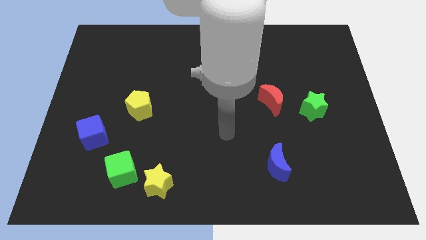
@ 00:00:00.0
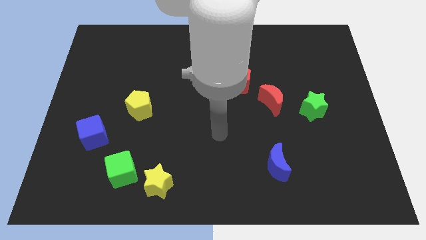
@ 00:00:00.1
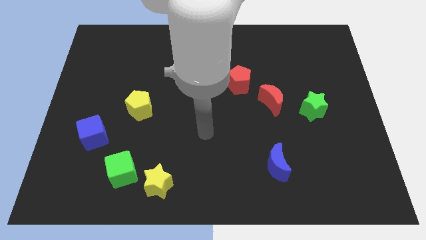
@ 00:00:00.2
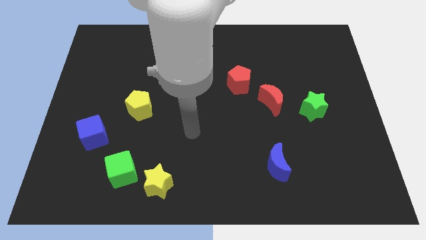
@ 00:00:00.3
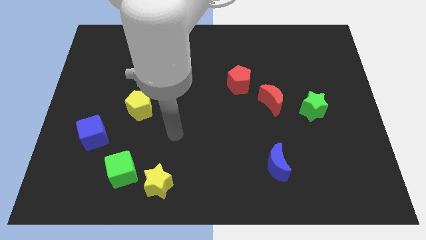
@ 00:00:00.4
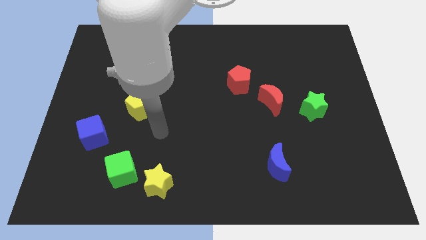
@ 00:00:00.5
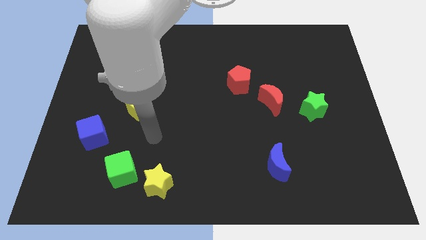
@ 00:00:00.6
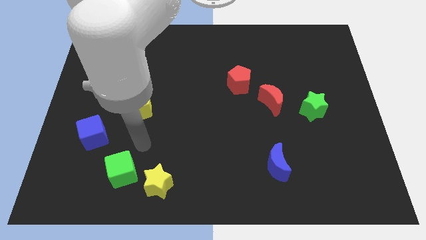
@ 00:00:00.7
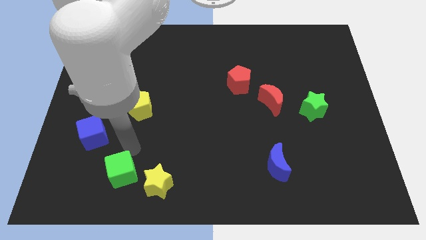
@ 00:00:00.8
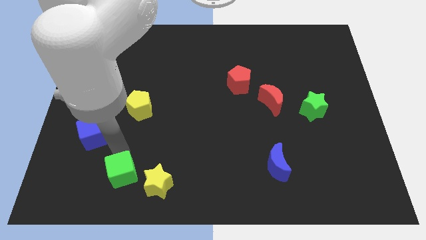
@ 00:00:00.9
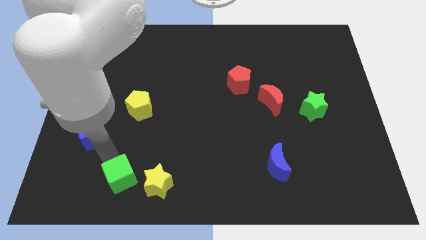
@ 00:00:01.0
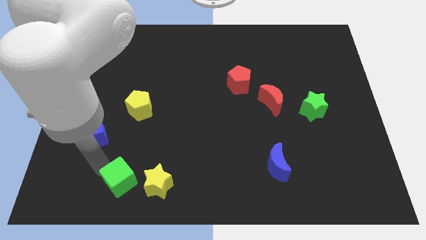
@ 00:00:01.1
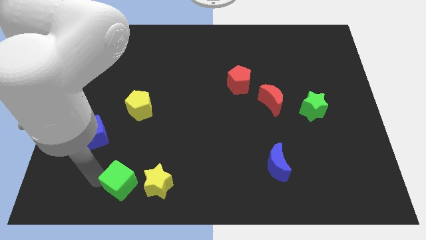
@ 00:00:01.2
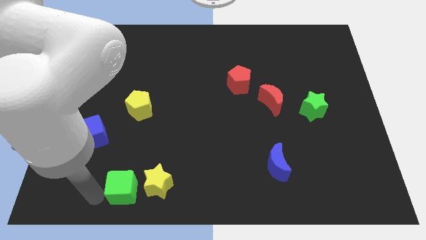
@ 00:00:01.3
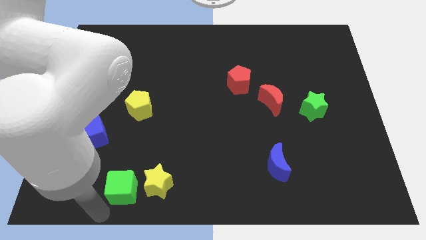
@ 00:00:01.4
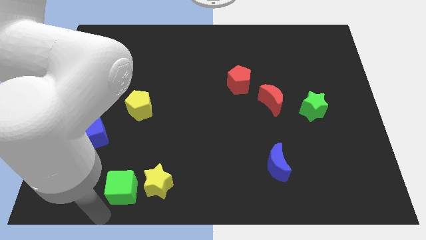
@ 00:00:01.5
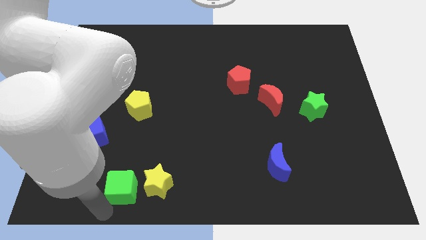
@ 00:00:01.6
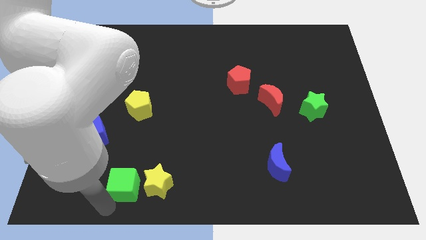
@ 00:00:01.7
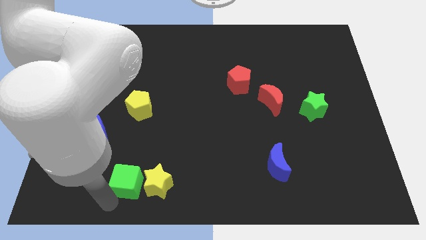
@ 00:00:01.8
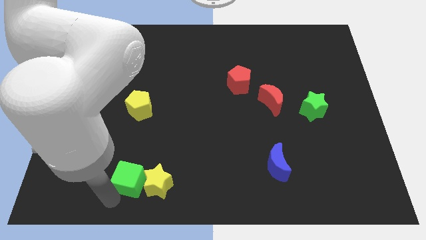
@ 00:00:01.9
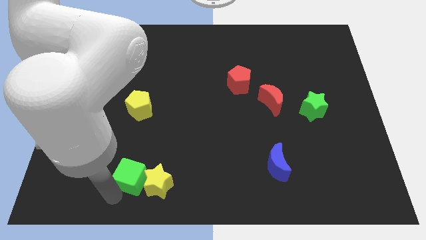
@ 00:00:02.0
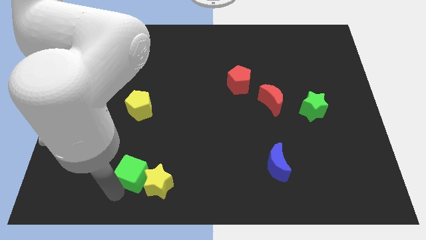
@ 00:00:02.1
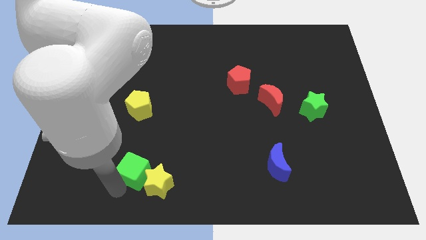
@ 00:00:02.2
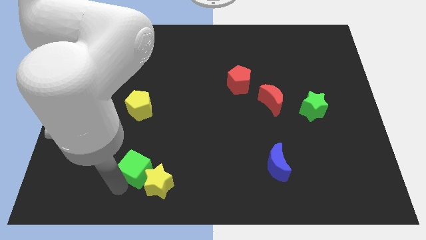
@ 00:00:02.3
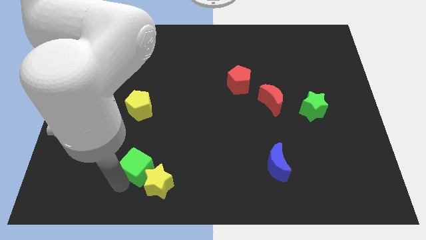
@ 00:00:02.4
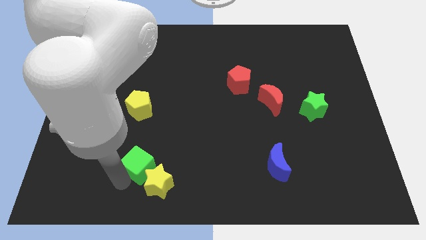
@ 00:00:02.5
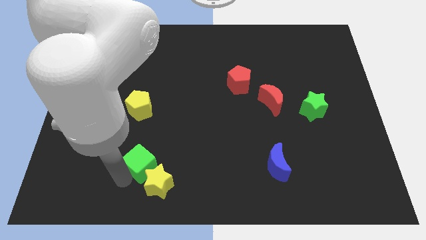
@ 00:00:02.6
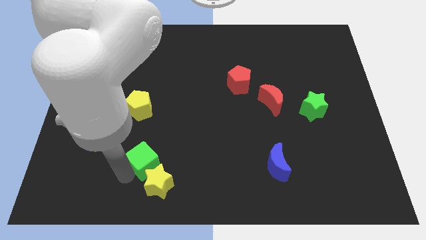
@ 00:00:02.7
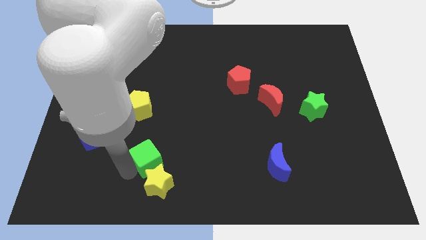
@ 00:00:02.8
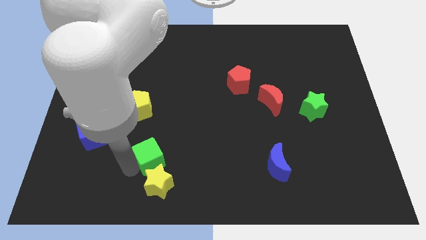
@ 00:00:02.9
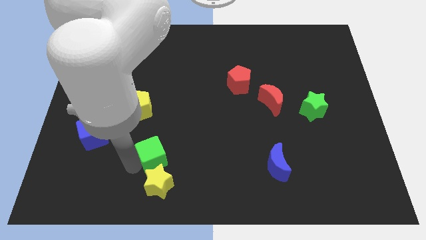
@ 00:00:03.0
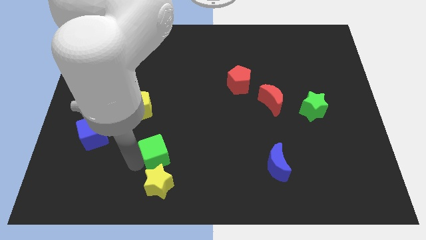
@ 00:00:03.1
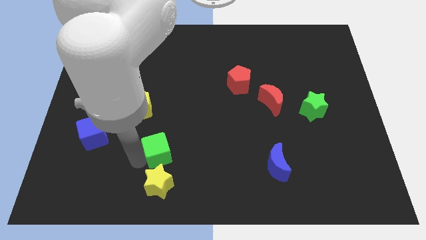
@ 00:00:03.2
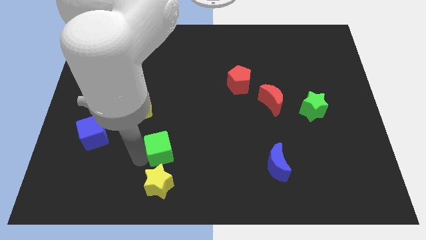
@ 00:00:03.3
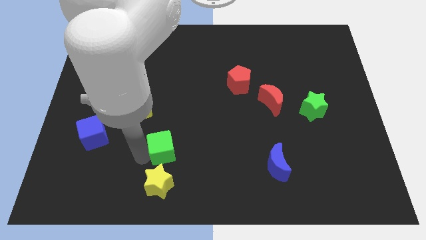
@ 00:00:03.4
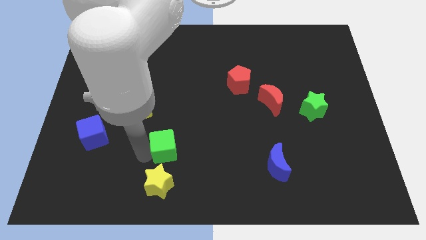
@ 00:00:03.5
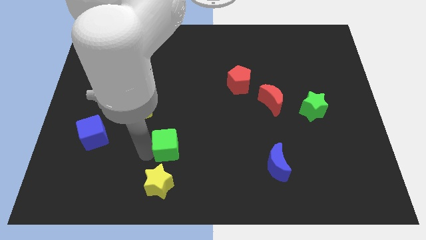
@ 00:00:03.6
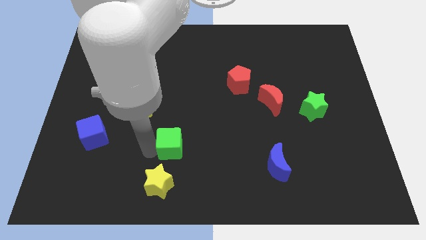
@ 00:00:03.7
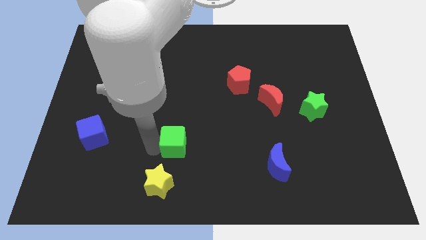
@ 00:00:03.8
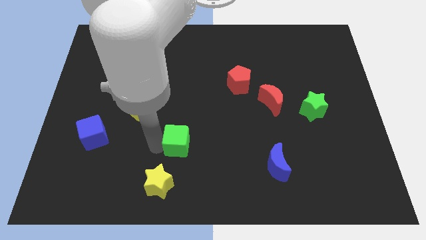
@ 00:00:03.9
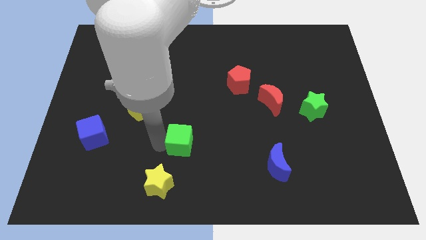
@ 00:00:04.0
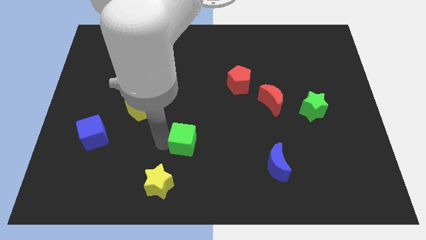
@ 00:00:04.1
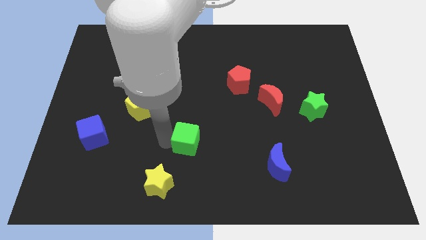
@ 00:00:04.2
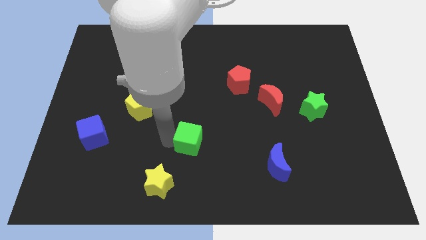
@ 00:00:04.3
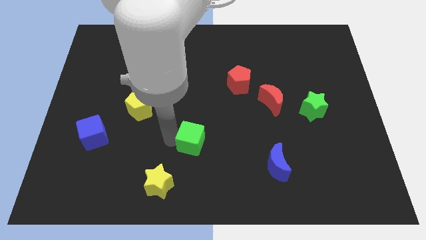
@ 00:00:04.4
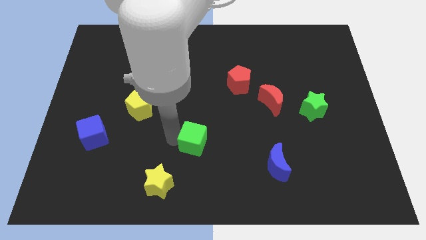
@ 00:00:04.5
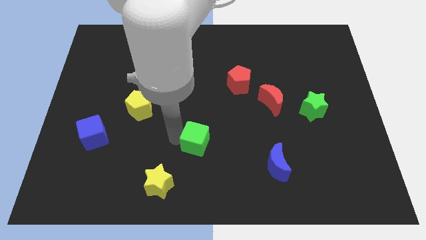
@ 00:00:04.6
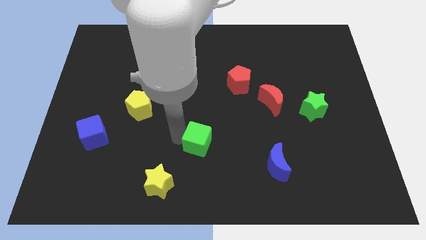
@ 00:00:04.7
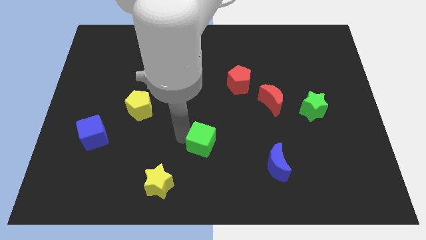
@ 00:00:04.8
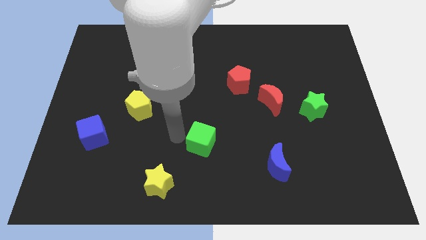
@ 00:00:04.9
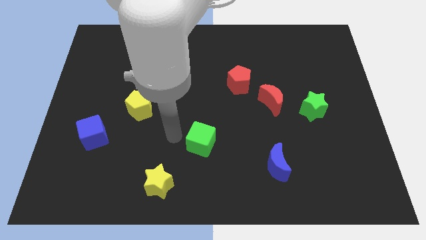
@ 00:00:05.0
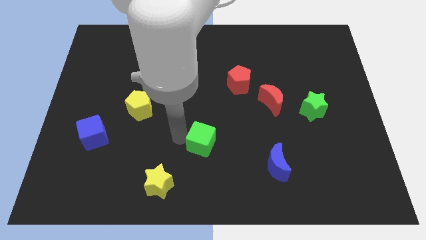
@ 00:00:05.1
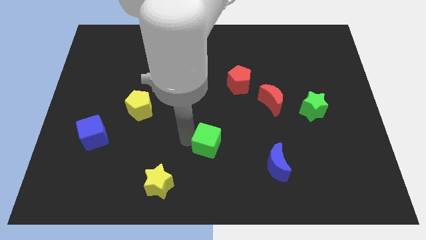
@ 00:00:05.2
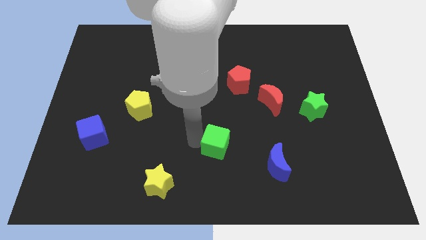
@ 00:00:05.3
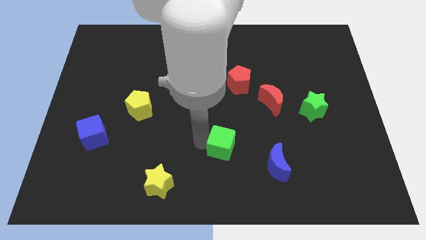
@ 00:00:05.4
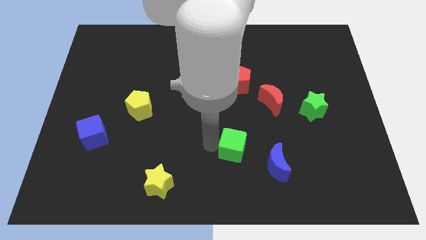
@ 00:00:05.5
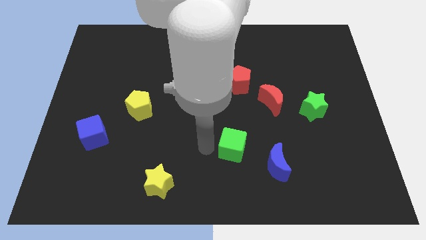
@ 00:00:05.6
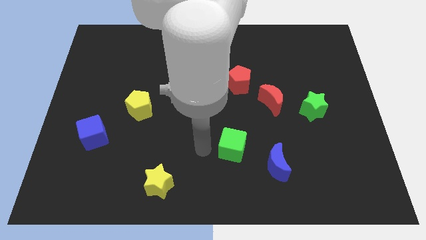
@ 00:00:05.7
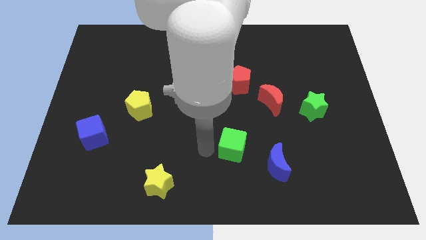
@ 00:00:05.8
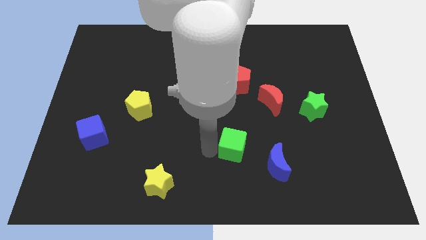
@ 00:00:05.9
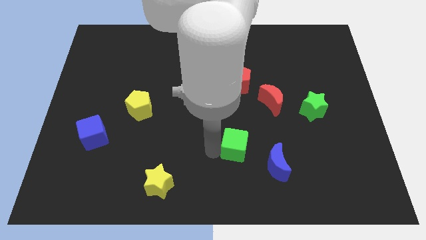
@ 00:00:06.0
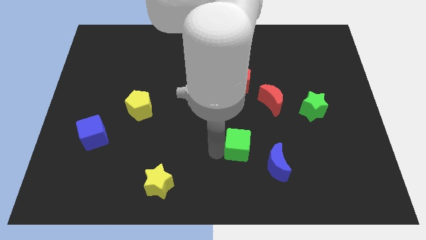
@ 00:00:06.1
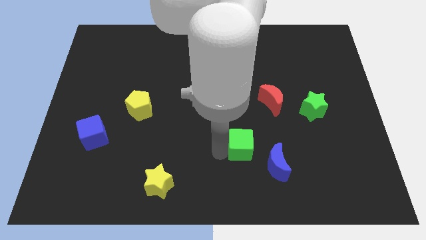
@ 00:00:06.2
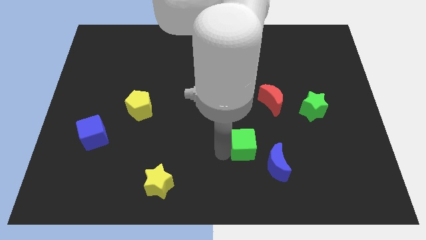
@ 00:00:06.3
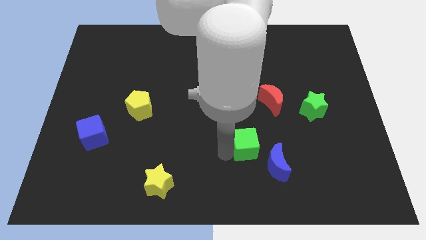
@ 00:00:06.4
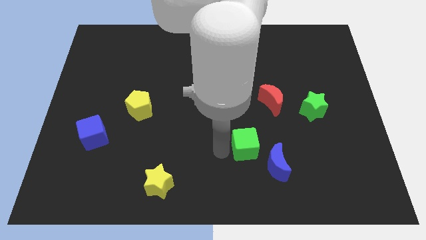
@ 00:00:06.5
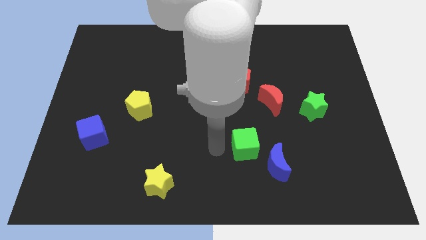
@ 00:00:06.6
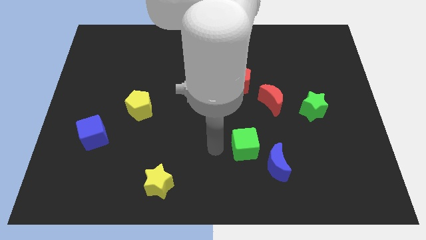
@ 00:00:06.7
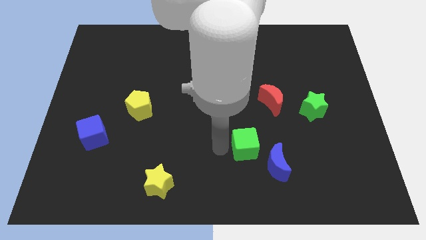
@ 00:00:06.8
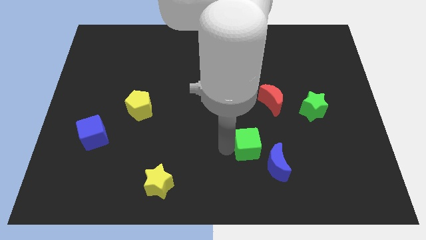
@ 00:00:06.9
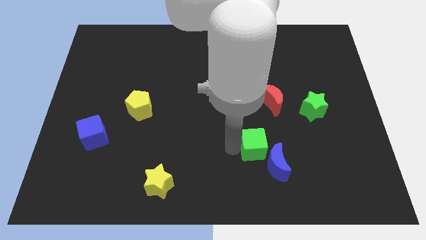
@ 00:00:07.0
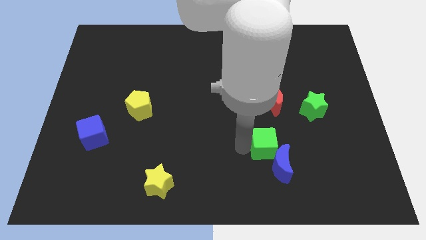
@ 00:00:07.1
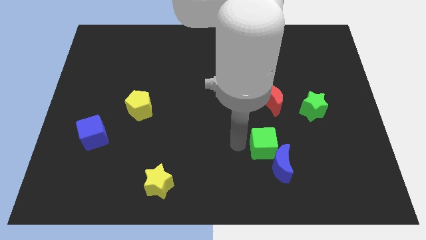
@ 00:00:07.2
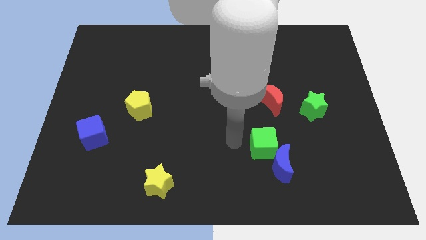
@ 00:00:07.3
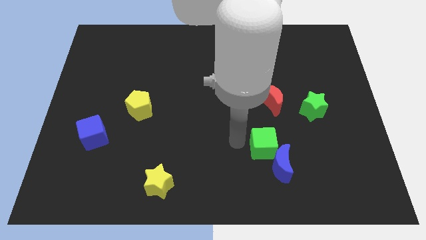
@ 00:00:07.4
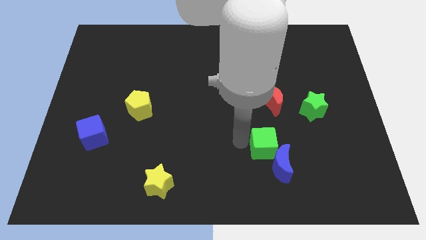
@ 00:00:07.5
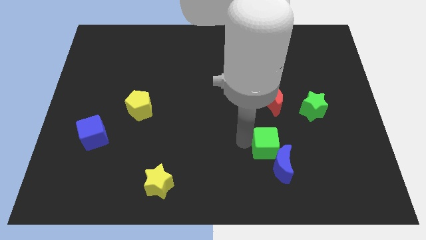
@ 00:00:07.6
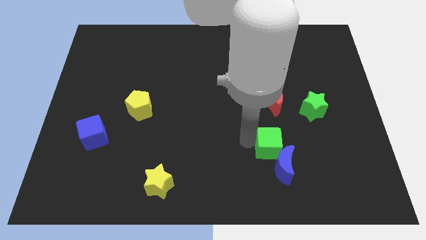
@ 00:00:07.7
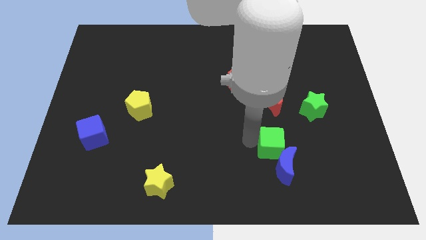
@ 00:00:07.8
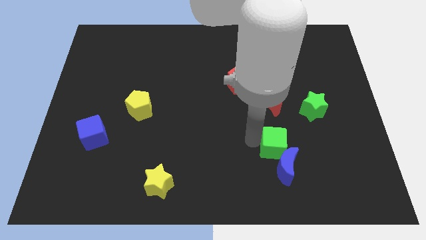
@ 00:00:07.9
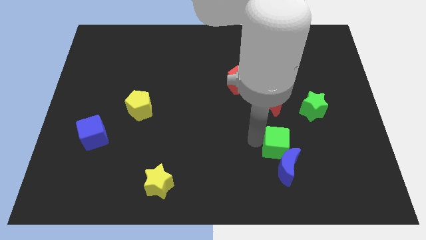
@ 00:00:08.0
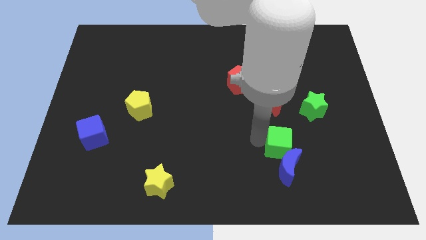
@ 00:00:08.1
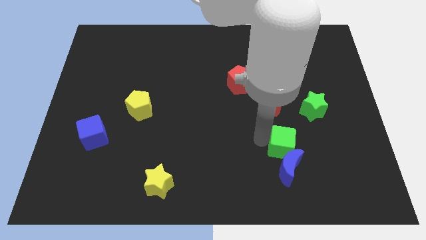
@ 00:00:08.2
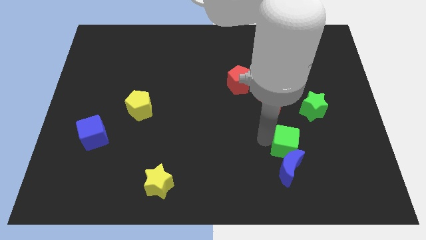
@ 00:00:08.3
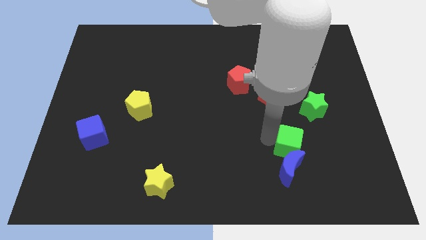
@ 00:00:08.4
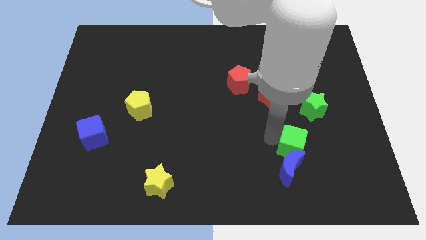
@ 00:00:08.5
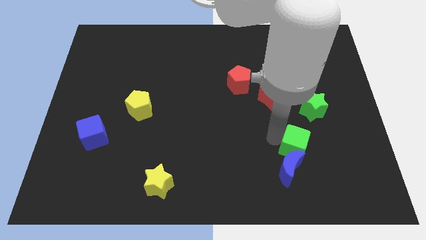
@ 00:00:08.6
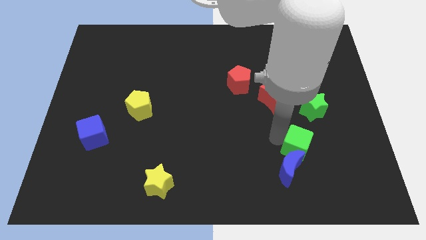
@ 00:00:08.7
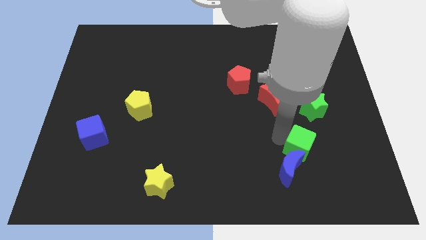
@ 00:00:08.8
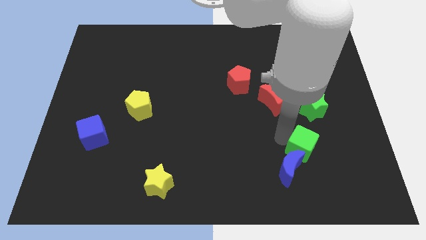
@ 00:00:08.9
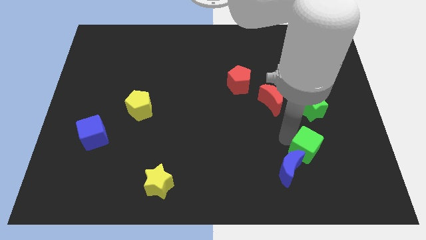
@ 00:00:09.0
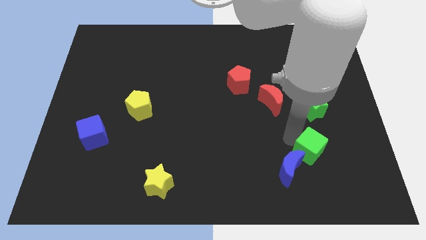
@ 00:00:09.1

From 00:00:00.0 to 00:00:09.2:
push the green cube to the right side of the blue moon
